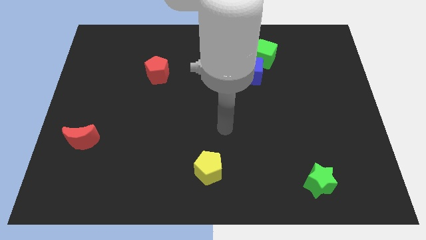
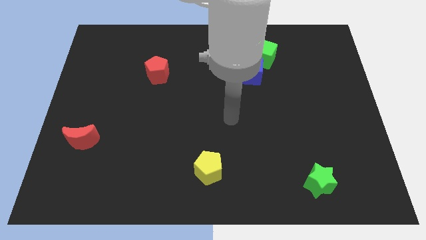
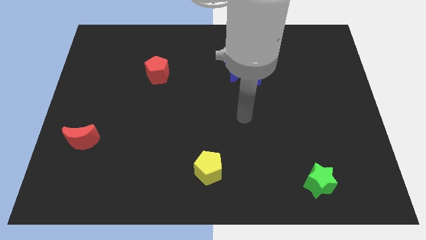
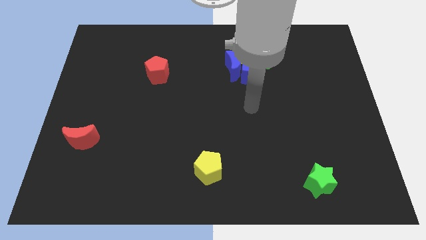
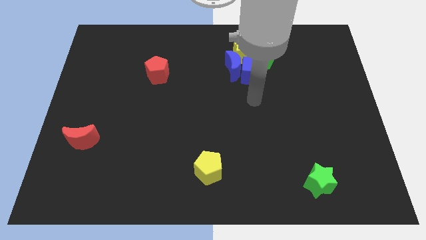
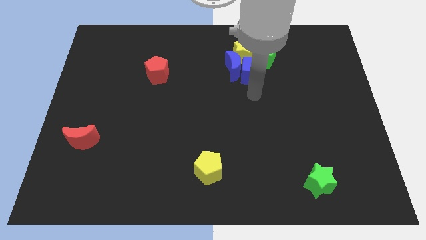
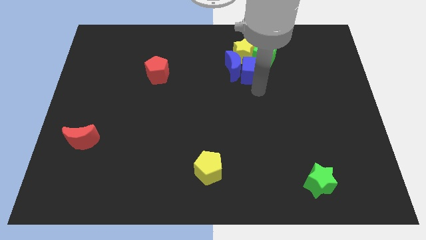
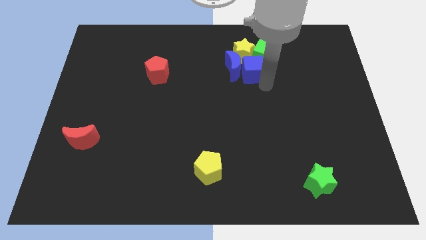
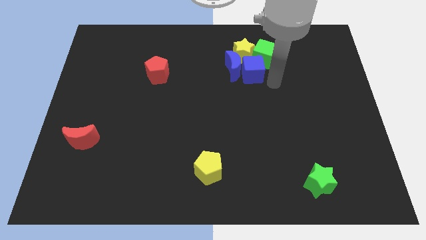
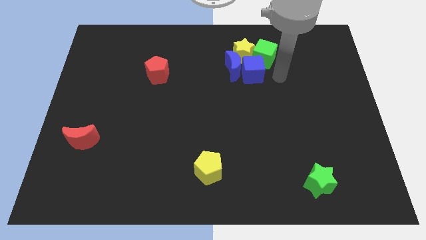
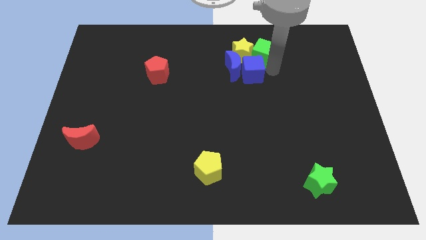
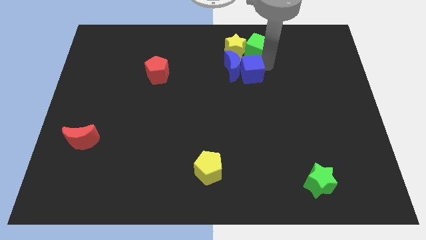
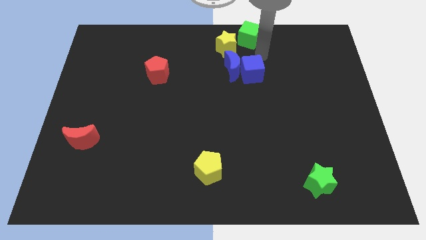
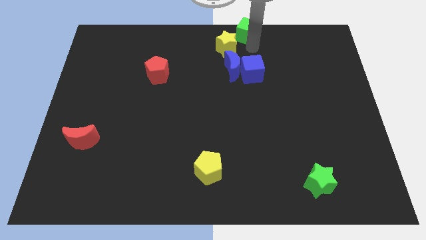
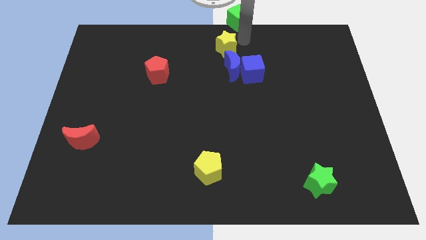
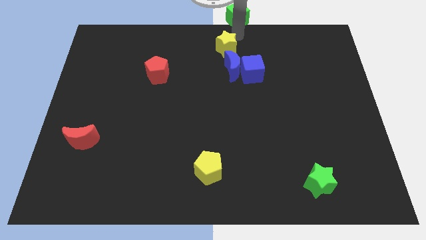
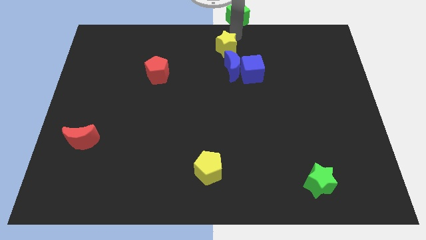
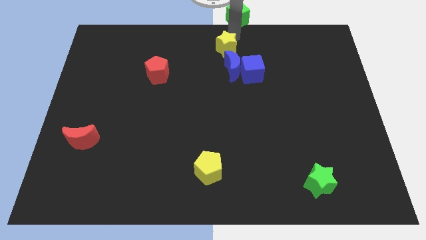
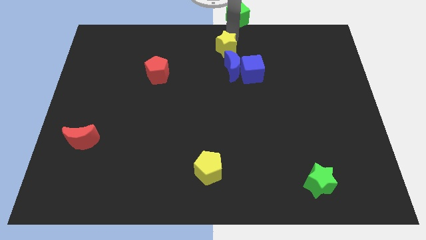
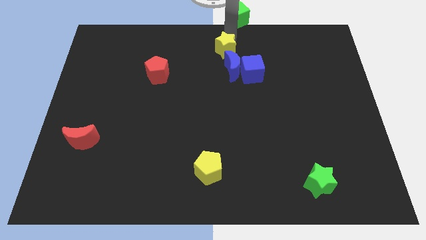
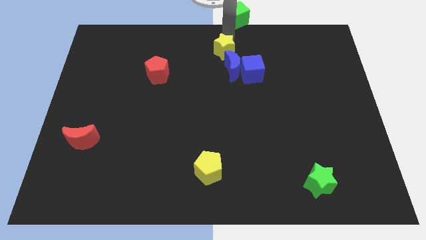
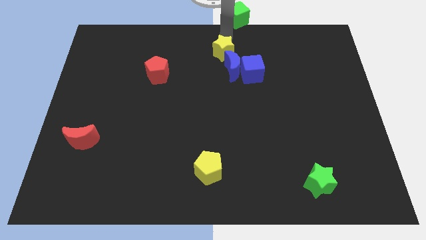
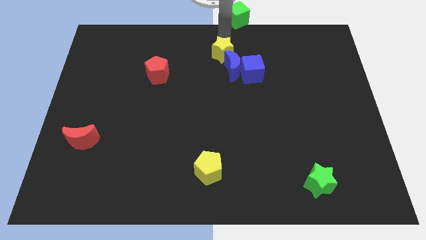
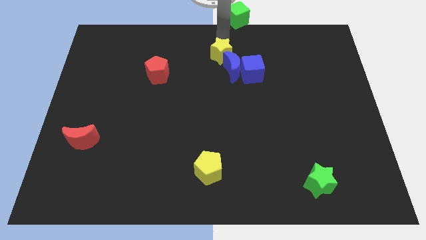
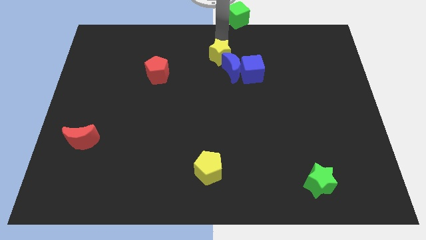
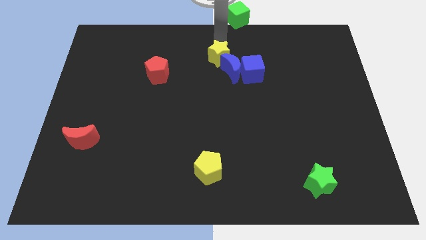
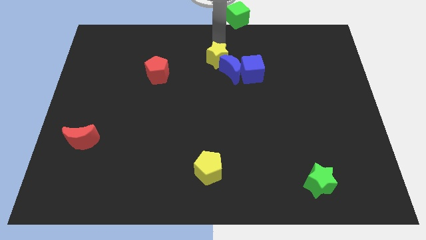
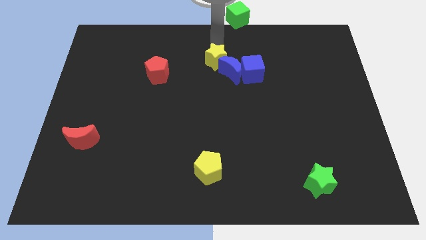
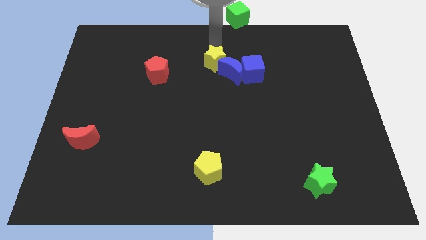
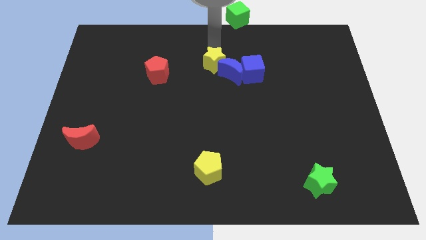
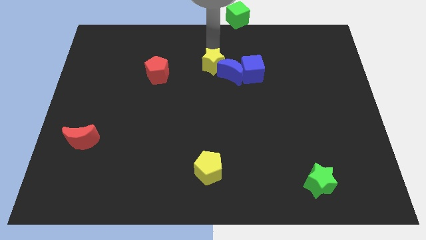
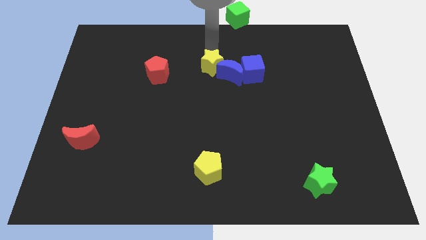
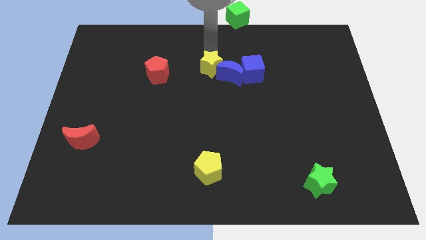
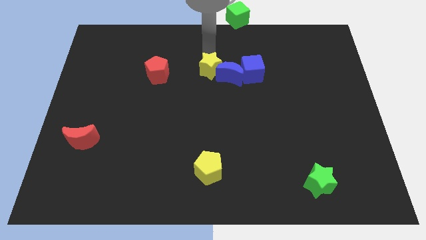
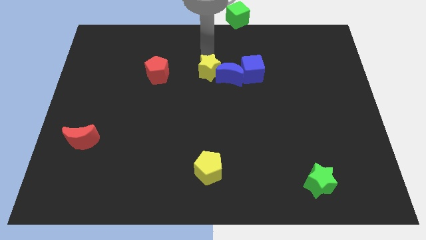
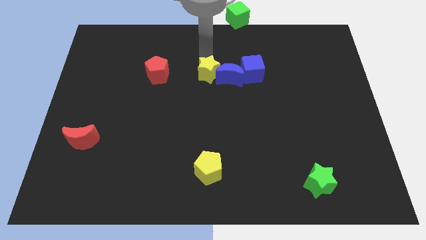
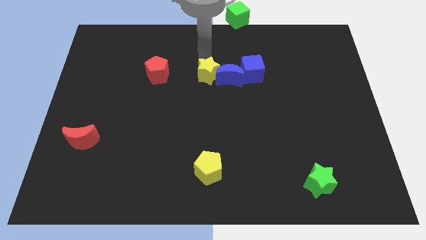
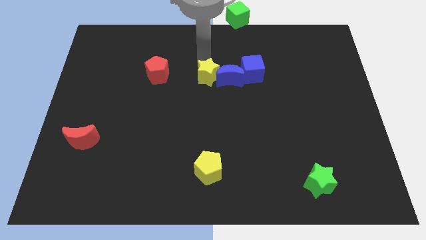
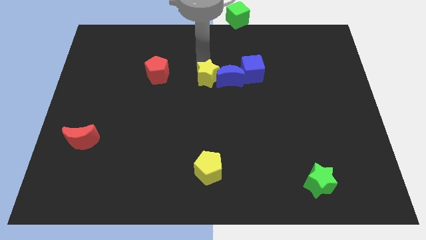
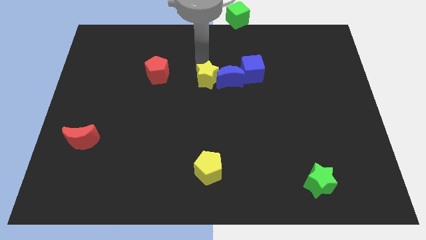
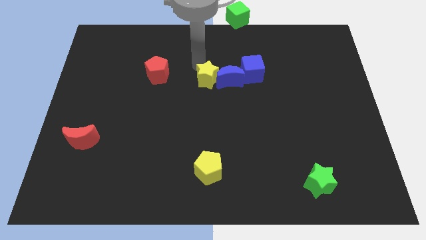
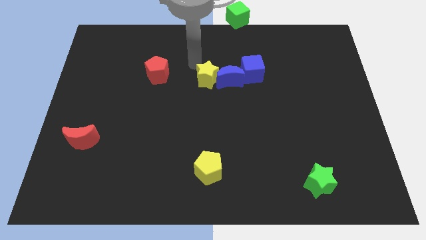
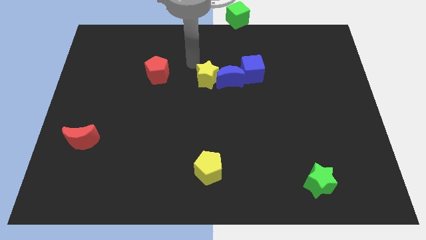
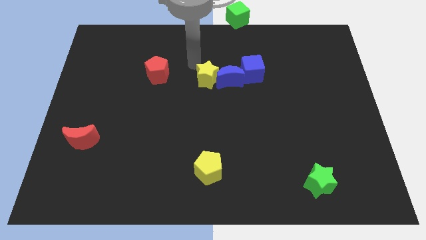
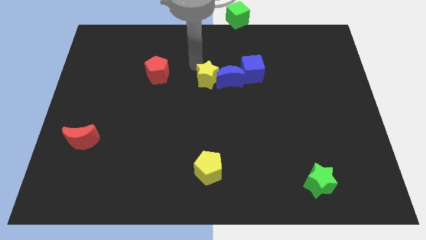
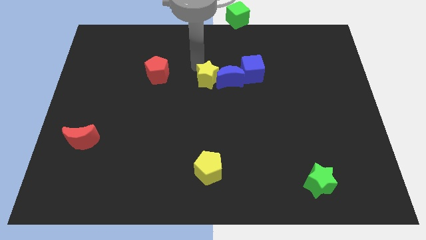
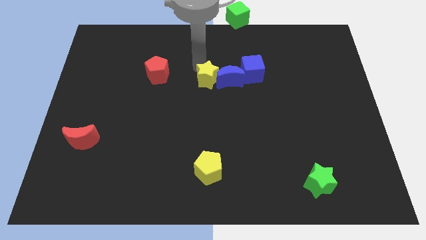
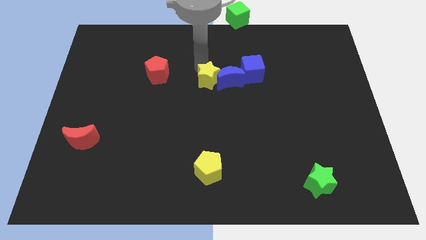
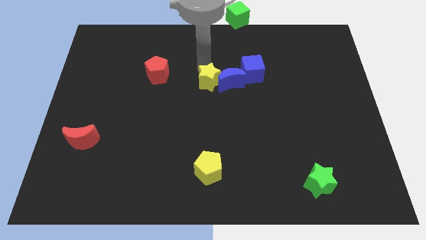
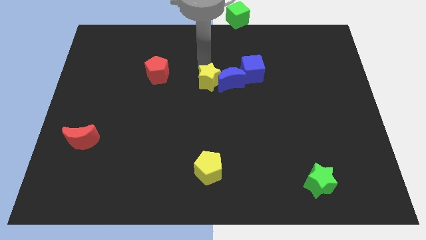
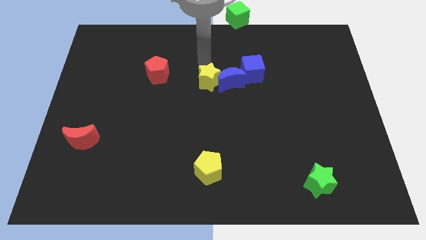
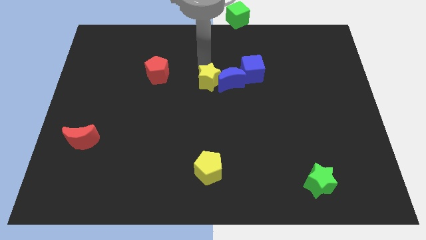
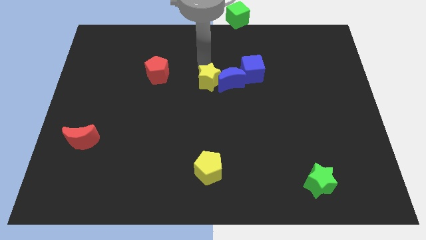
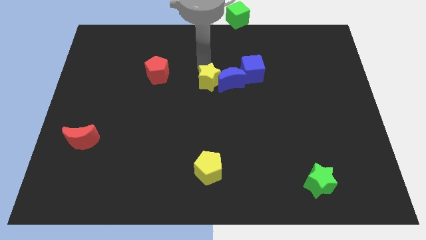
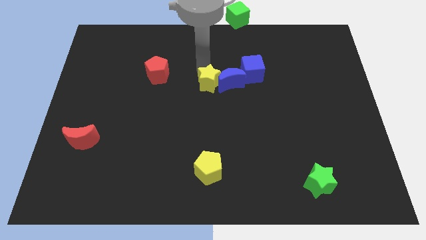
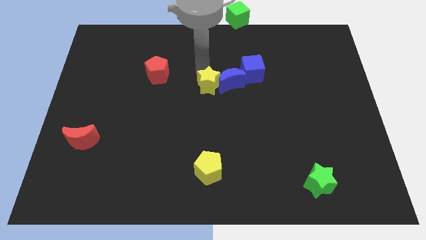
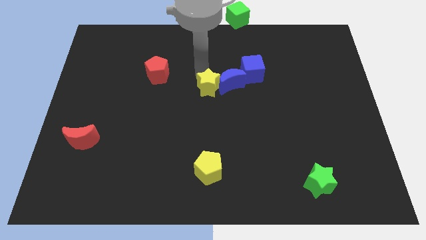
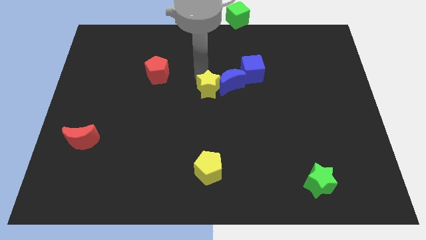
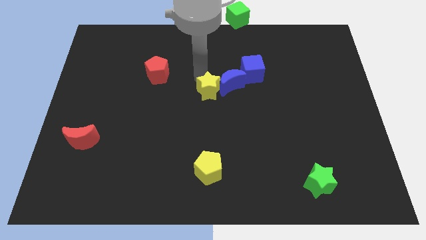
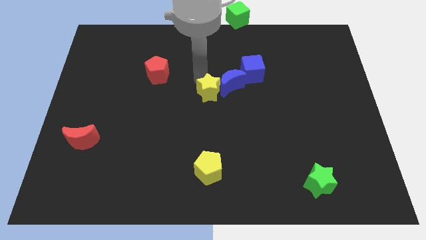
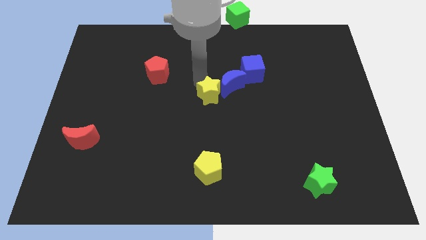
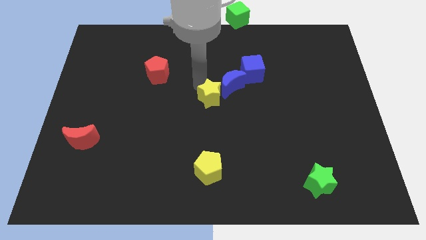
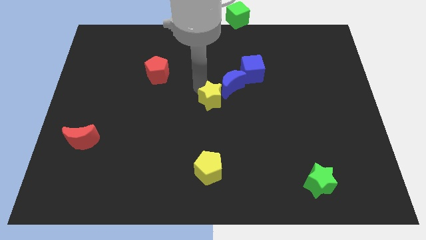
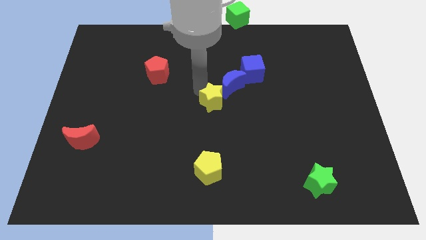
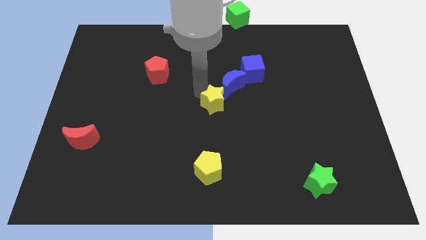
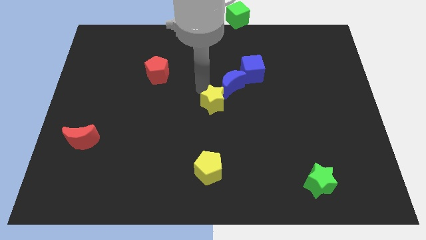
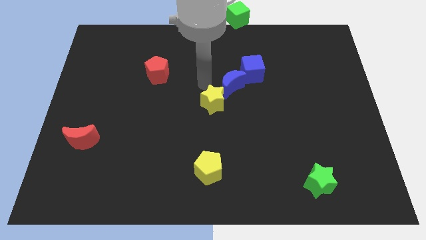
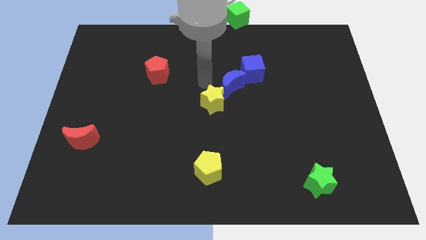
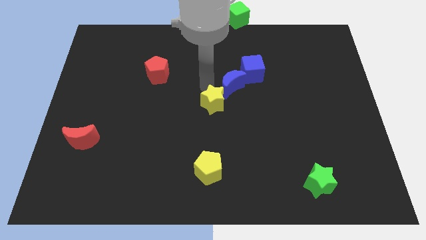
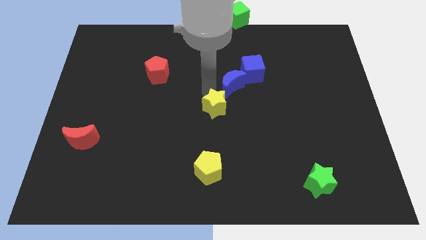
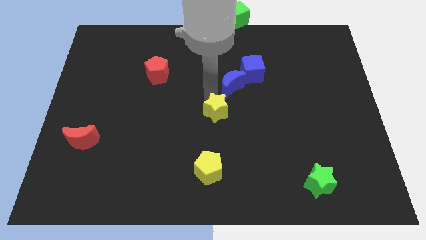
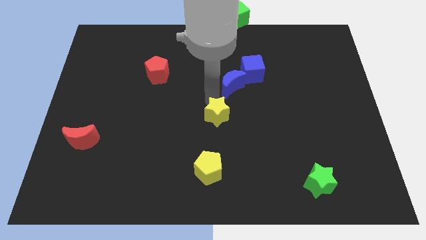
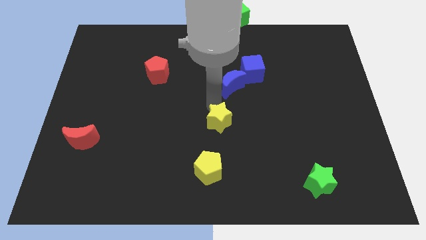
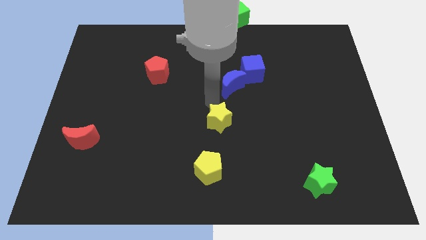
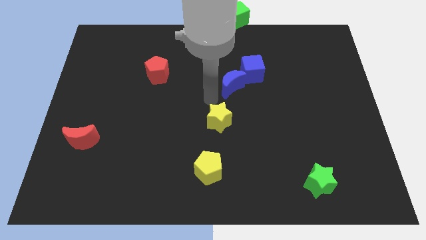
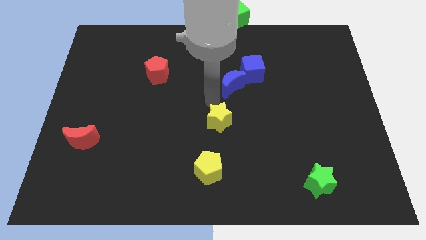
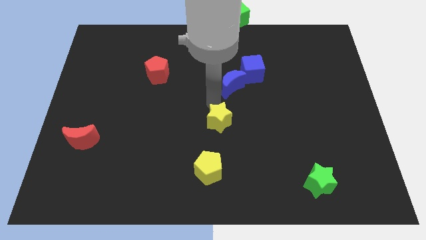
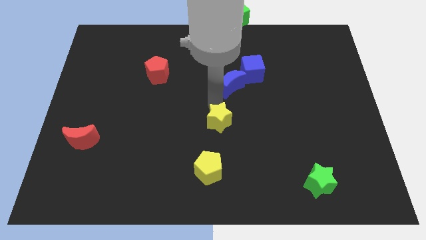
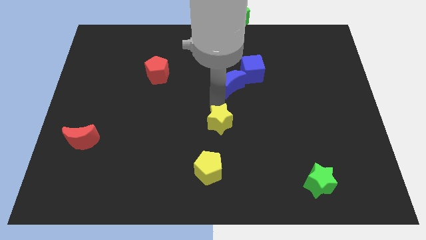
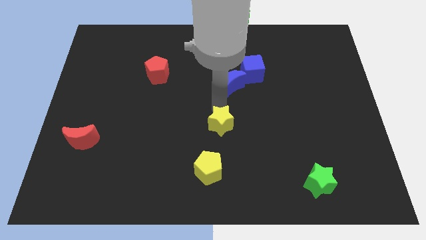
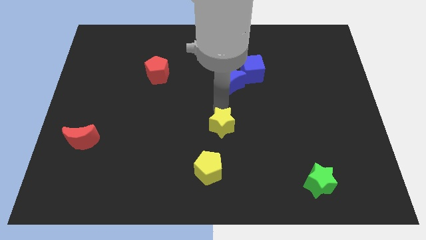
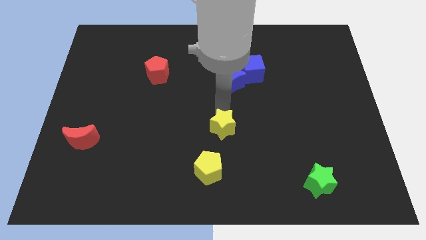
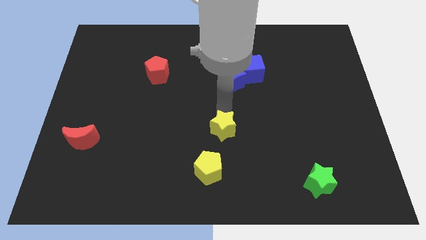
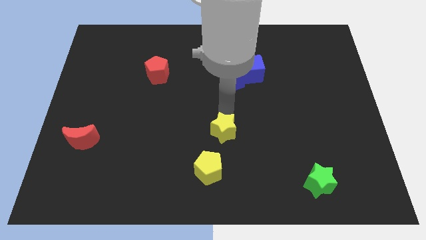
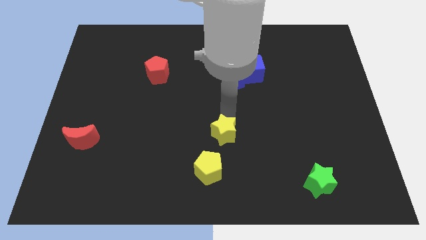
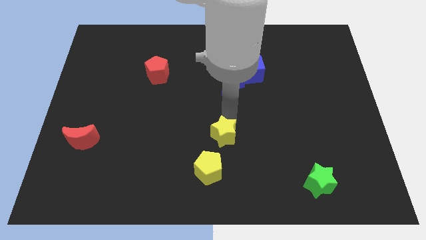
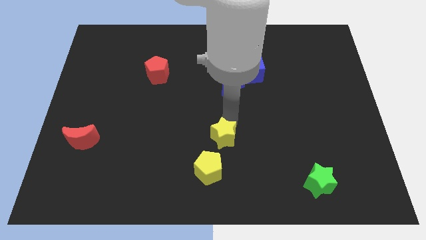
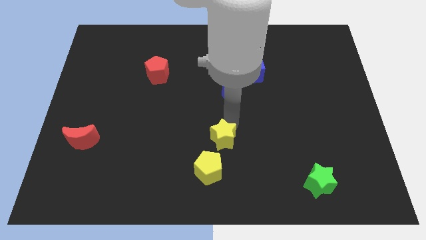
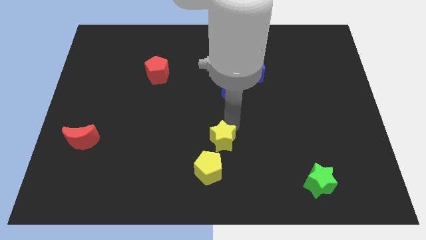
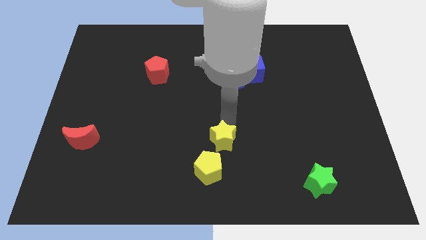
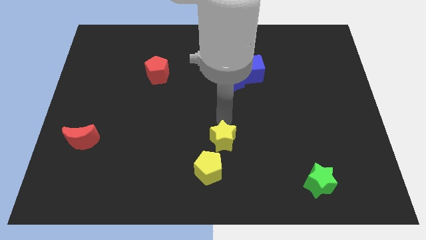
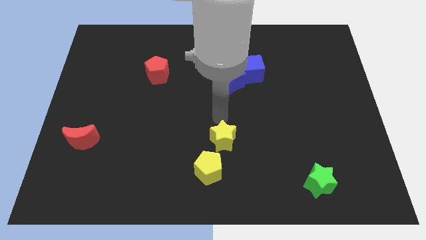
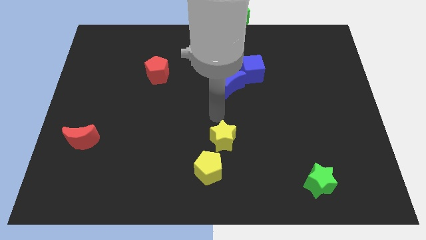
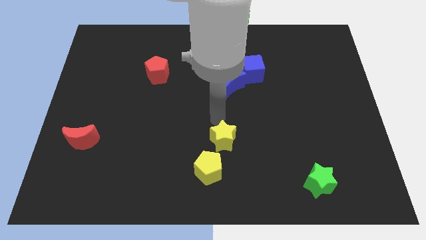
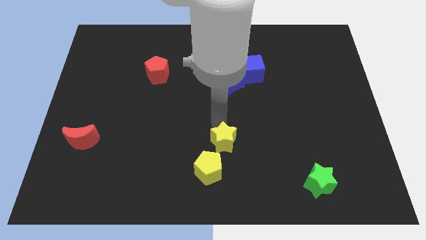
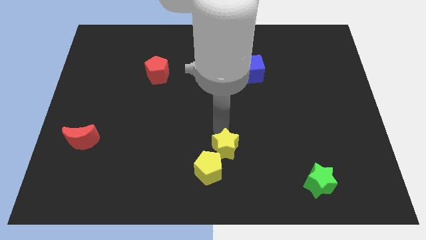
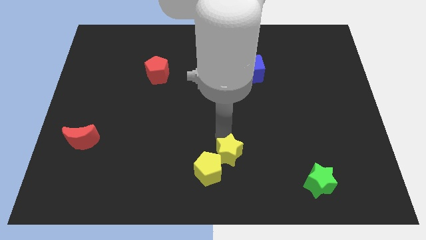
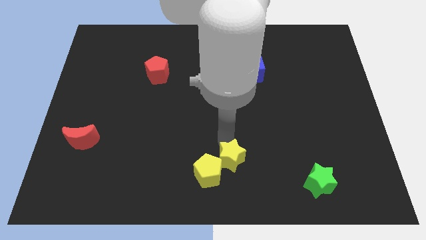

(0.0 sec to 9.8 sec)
slide the yellow star to the bottom side
